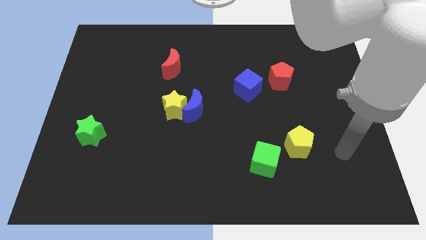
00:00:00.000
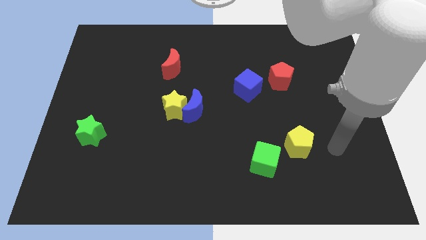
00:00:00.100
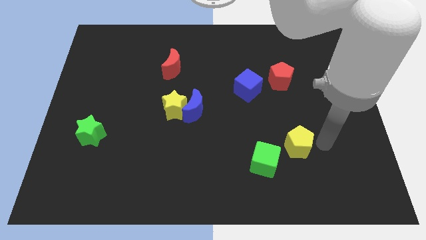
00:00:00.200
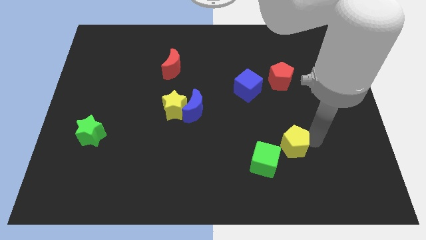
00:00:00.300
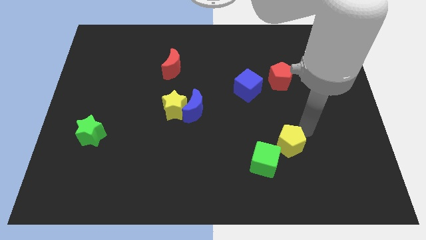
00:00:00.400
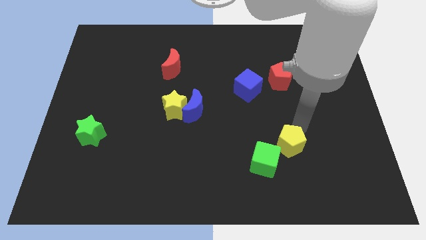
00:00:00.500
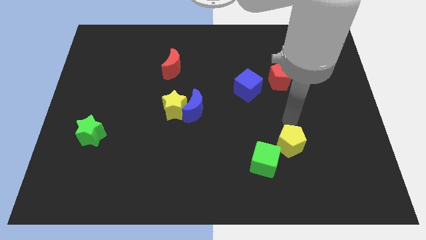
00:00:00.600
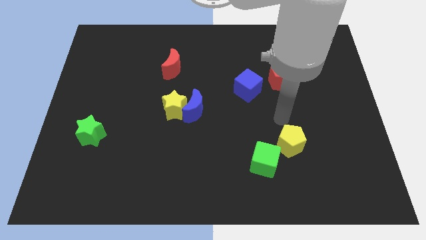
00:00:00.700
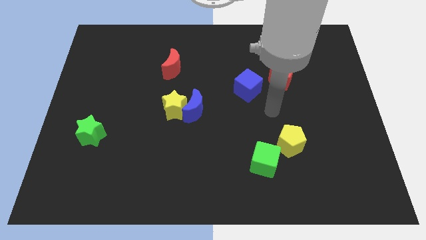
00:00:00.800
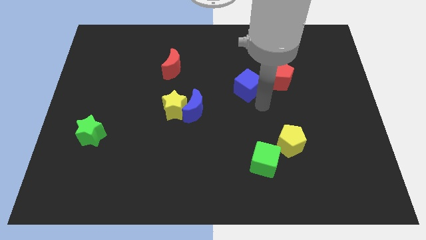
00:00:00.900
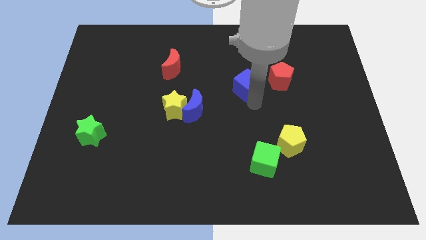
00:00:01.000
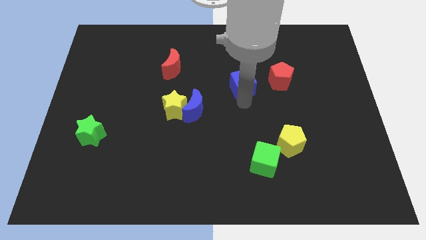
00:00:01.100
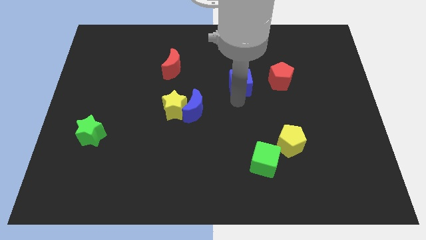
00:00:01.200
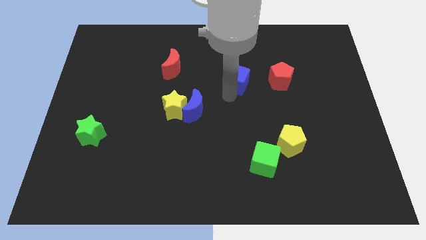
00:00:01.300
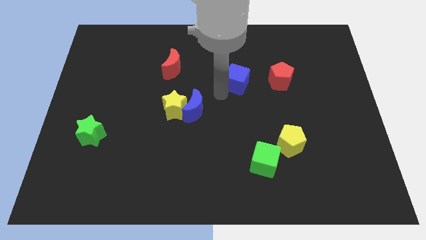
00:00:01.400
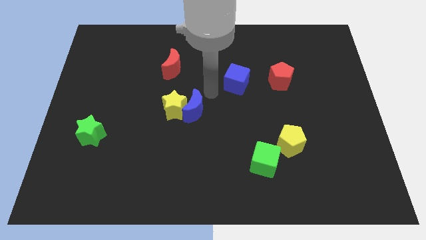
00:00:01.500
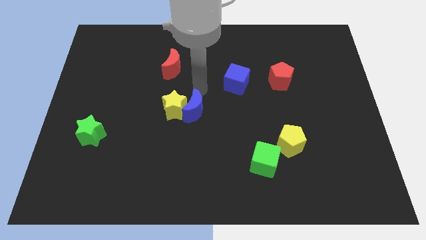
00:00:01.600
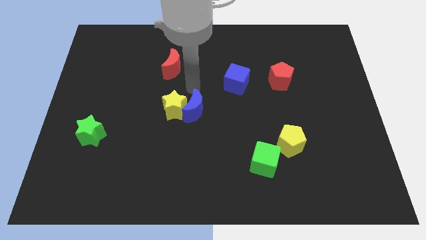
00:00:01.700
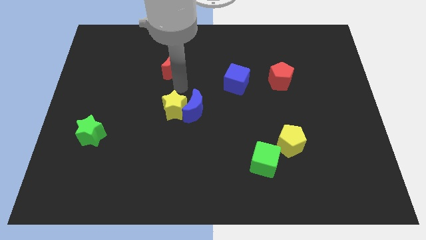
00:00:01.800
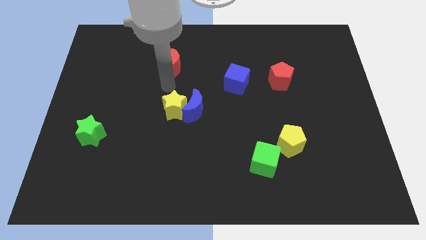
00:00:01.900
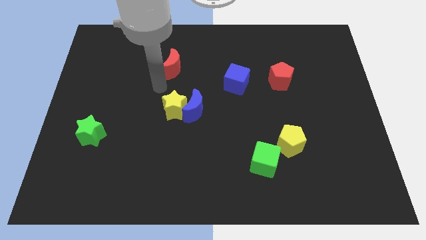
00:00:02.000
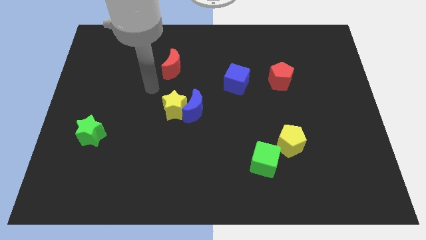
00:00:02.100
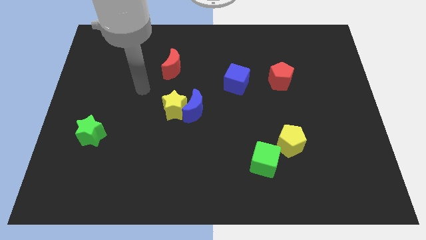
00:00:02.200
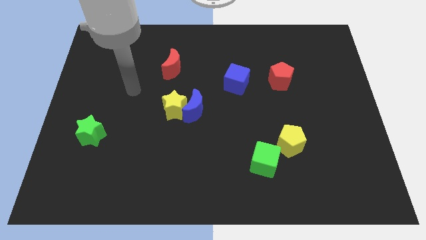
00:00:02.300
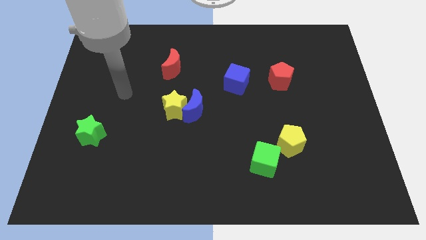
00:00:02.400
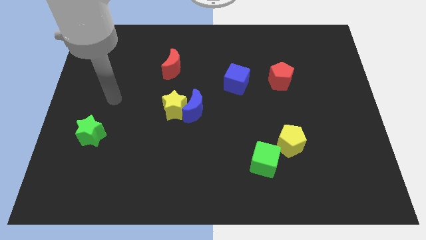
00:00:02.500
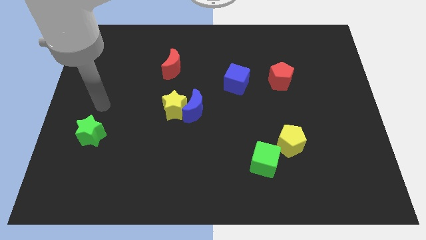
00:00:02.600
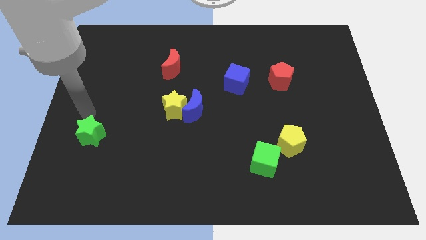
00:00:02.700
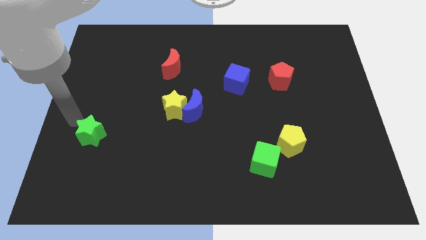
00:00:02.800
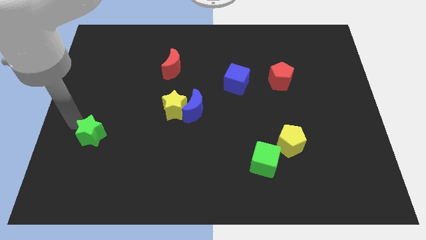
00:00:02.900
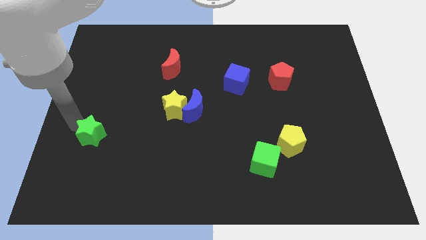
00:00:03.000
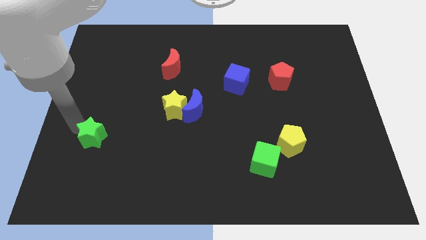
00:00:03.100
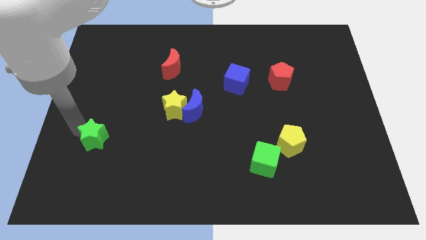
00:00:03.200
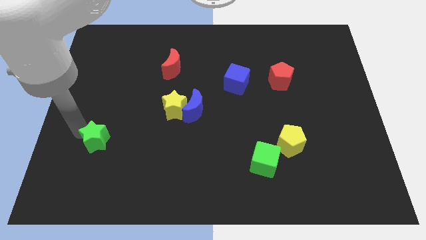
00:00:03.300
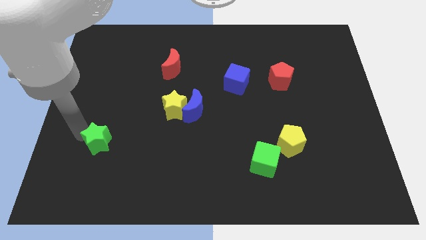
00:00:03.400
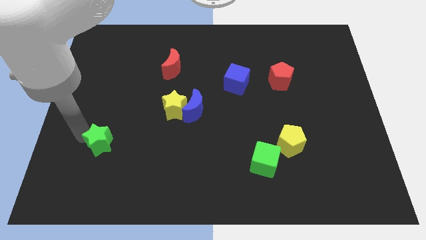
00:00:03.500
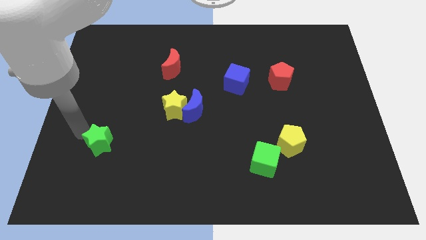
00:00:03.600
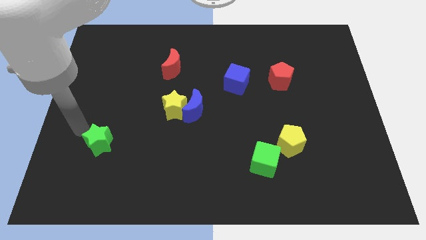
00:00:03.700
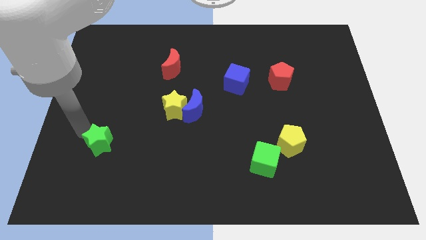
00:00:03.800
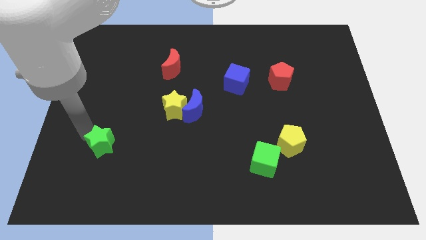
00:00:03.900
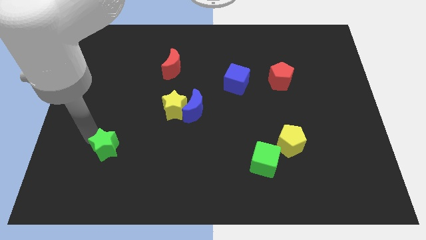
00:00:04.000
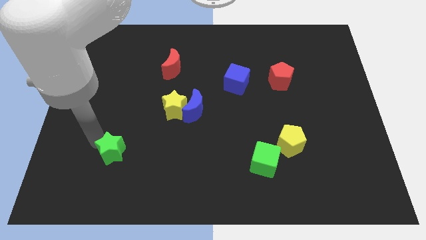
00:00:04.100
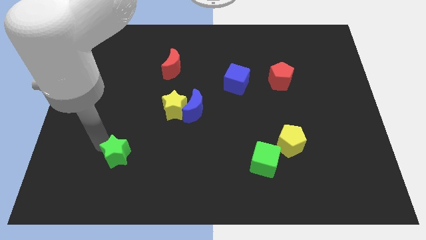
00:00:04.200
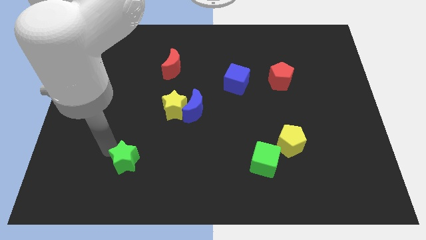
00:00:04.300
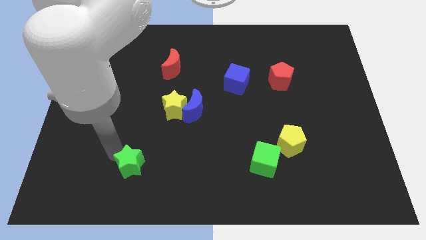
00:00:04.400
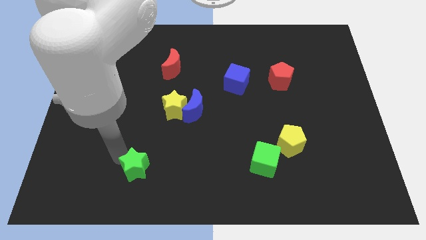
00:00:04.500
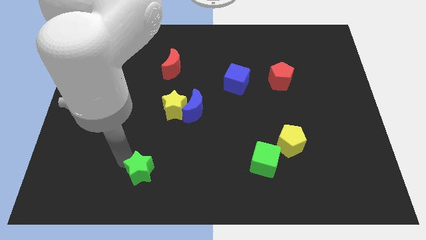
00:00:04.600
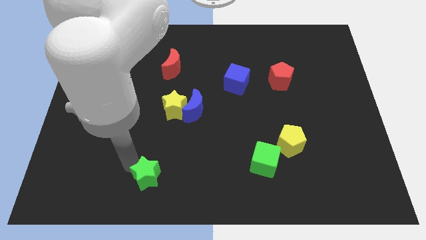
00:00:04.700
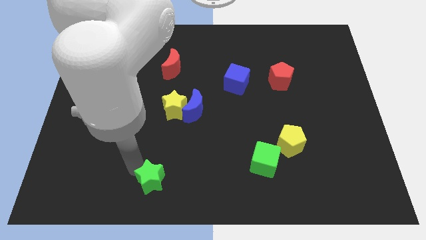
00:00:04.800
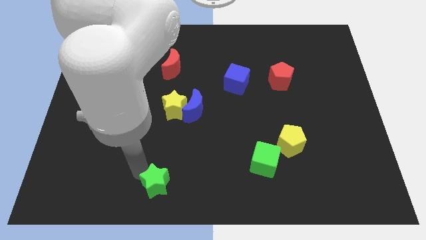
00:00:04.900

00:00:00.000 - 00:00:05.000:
push the green star to the bottom side

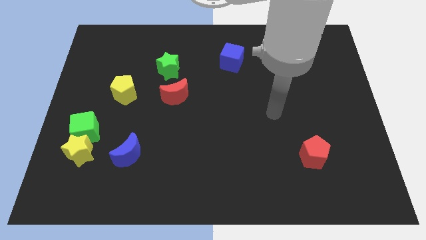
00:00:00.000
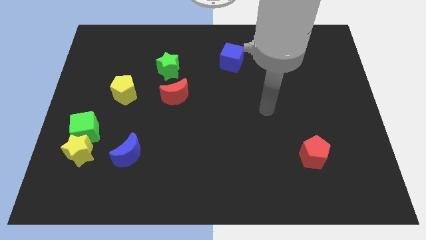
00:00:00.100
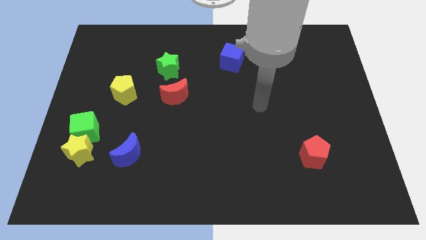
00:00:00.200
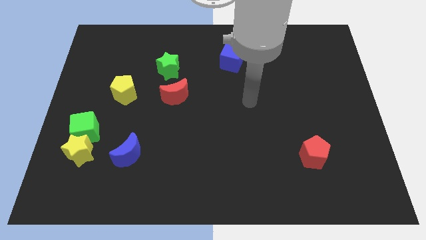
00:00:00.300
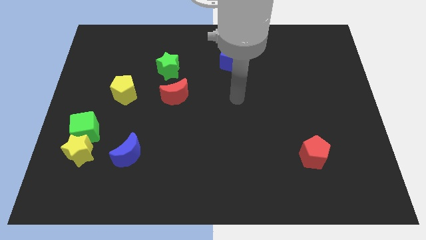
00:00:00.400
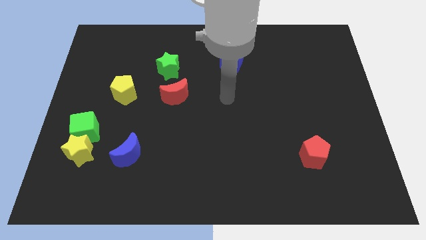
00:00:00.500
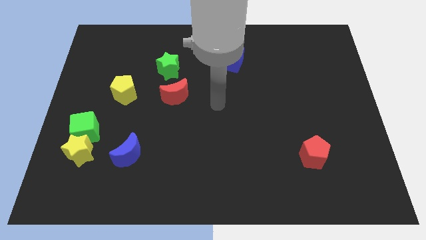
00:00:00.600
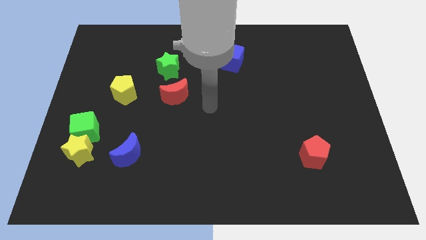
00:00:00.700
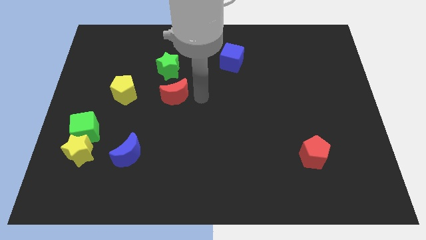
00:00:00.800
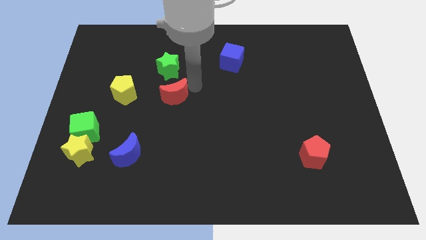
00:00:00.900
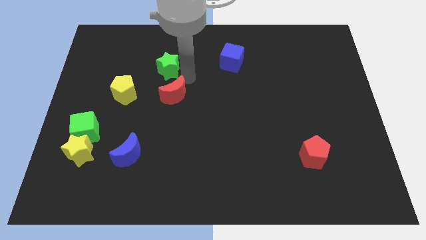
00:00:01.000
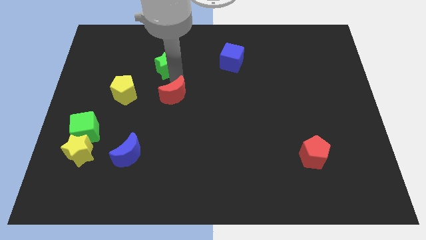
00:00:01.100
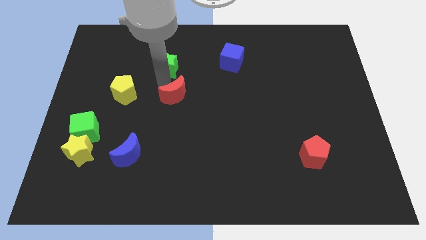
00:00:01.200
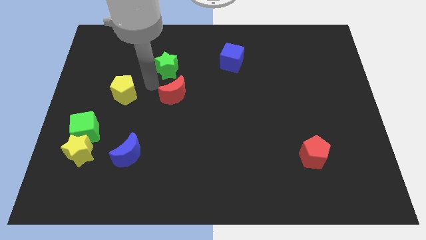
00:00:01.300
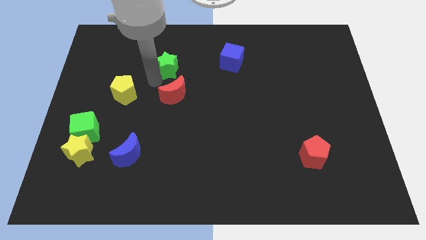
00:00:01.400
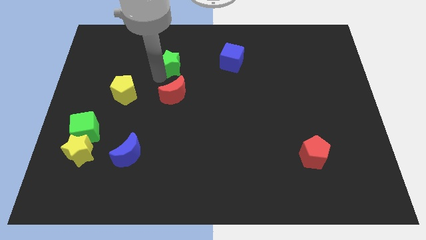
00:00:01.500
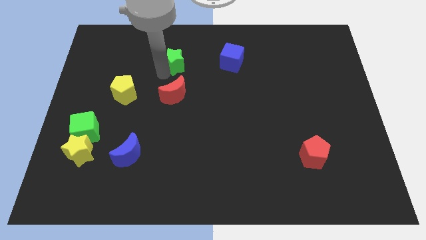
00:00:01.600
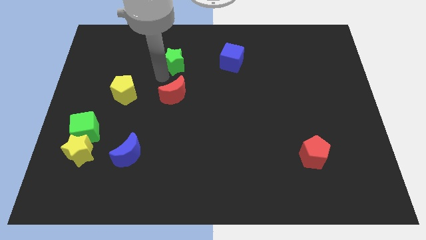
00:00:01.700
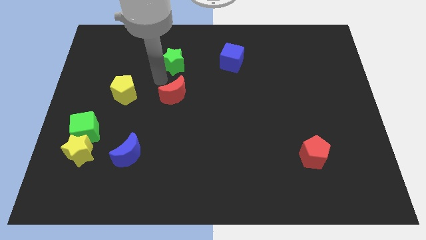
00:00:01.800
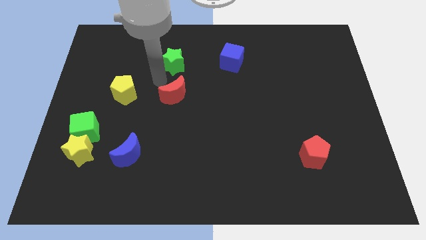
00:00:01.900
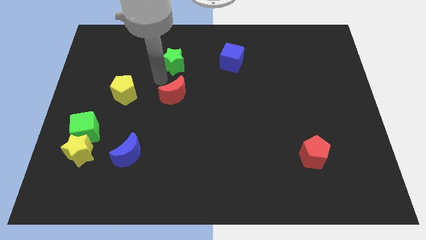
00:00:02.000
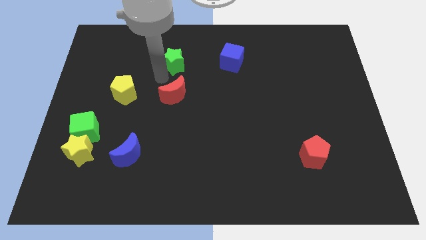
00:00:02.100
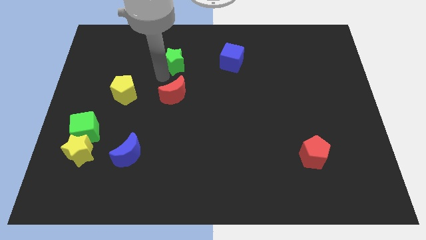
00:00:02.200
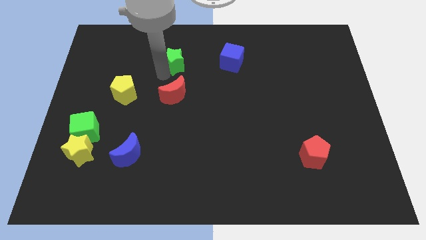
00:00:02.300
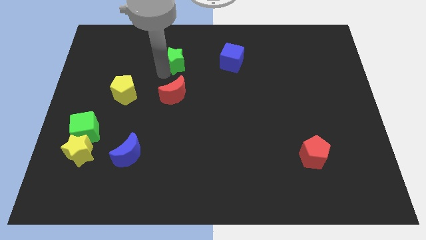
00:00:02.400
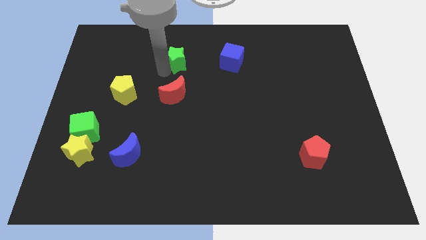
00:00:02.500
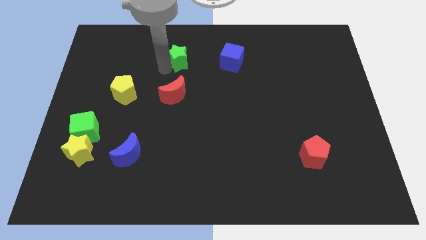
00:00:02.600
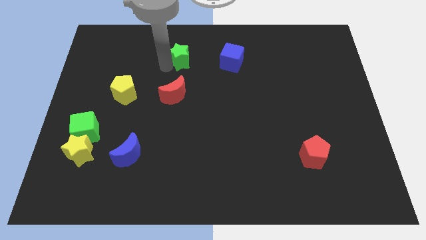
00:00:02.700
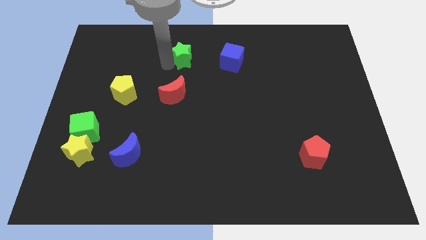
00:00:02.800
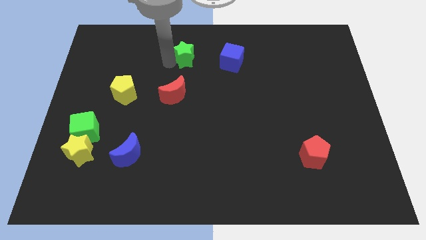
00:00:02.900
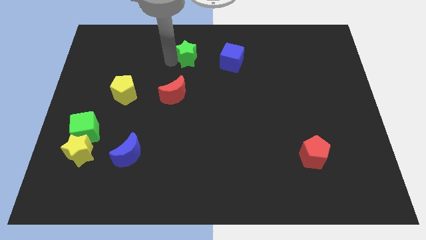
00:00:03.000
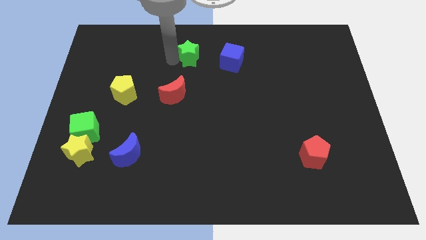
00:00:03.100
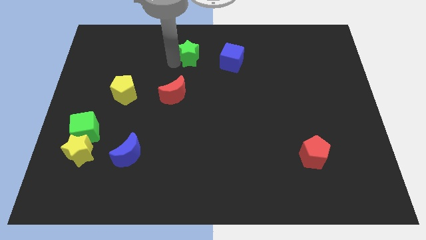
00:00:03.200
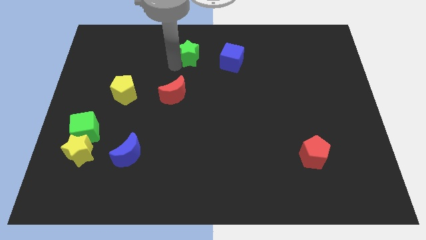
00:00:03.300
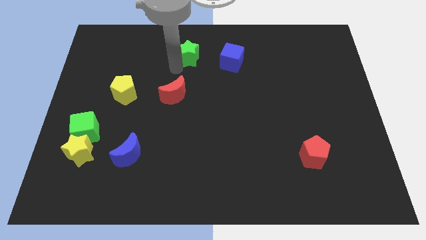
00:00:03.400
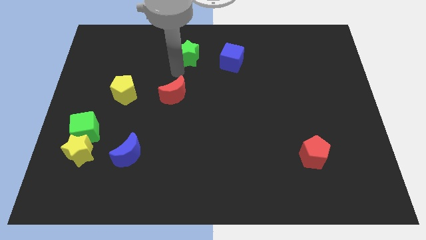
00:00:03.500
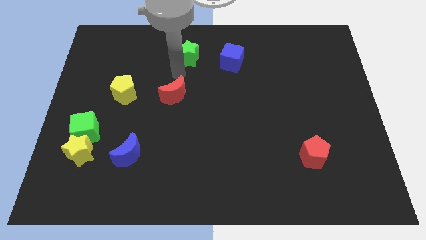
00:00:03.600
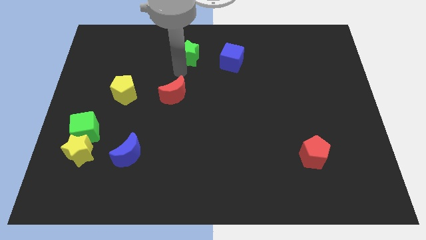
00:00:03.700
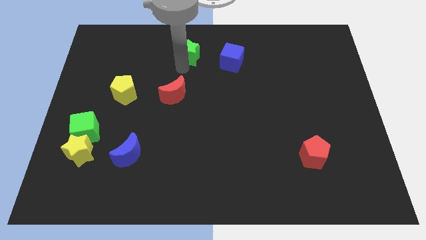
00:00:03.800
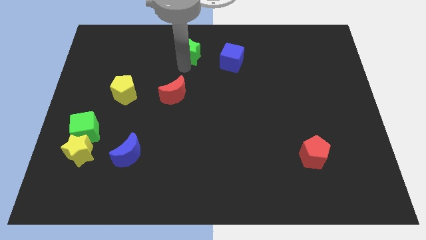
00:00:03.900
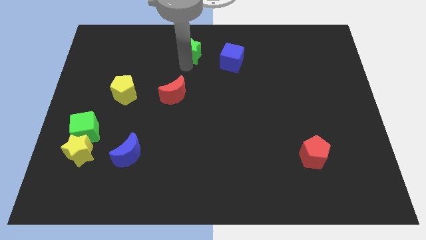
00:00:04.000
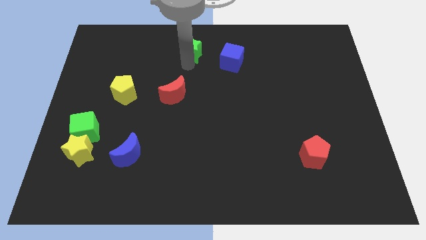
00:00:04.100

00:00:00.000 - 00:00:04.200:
put the green star to the top side
